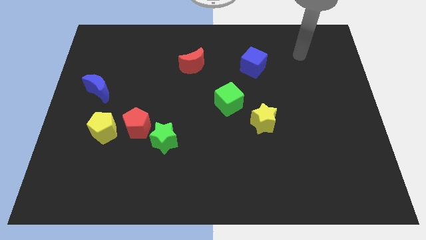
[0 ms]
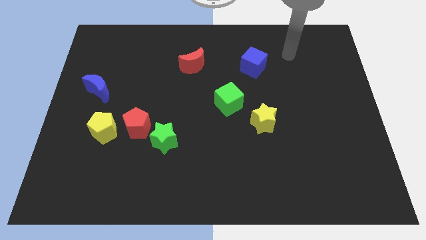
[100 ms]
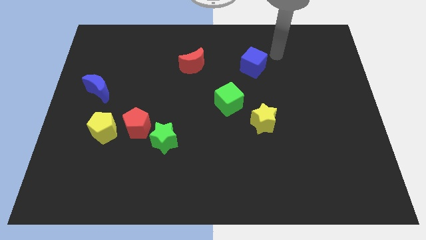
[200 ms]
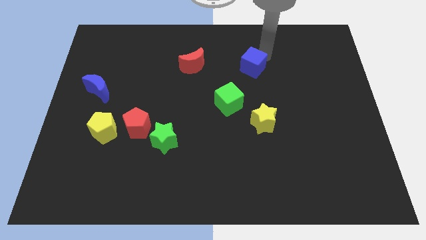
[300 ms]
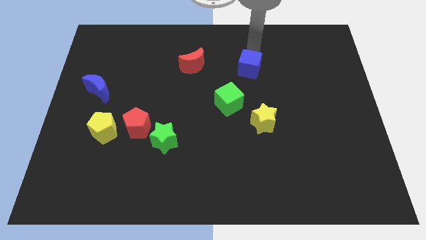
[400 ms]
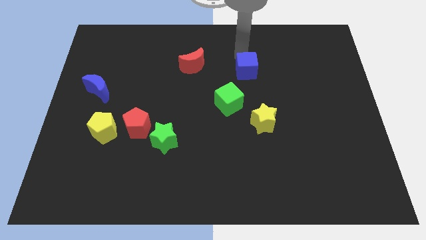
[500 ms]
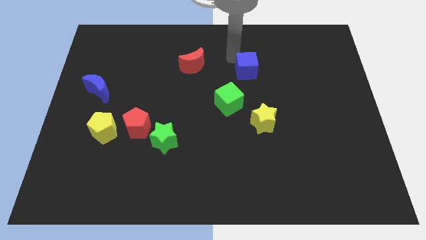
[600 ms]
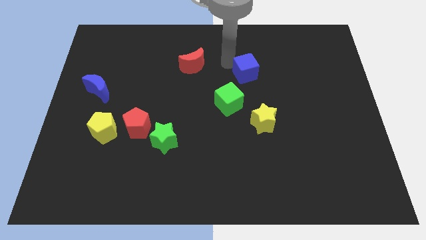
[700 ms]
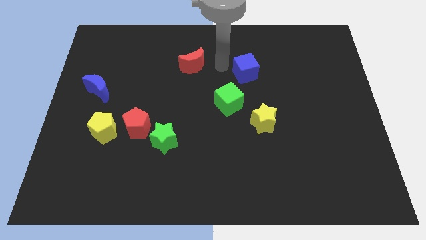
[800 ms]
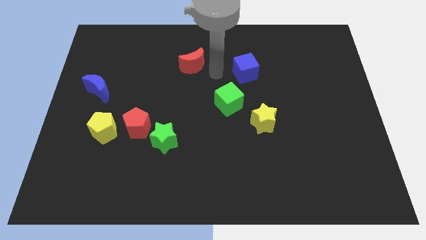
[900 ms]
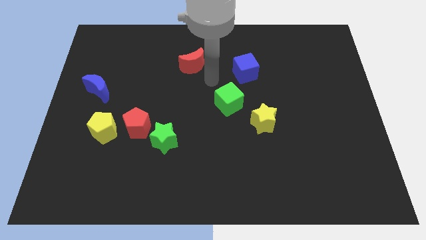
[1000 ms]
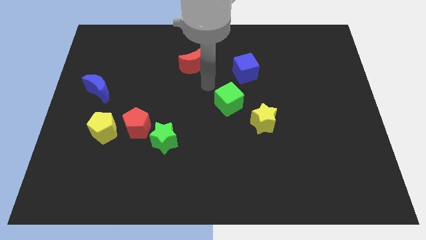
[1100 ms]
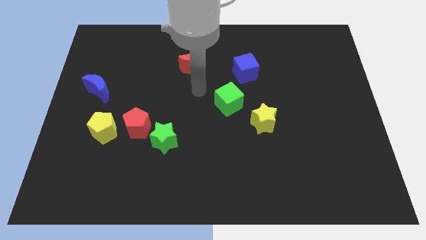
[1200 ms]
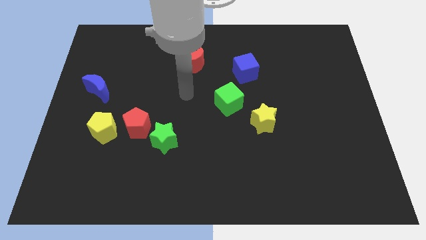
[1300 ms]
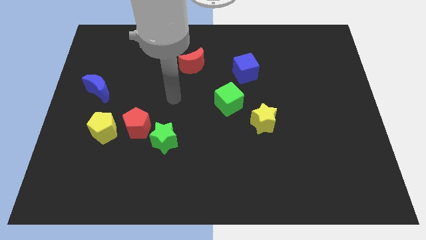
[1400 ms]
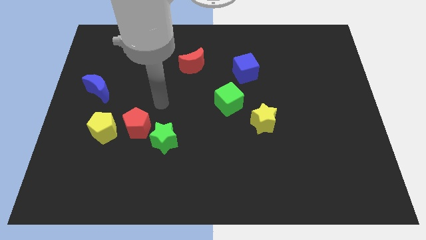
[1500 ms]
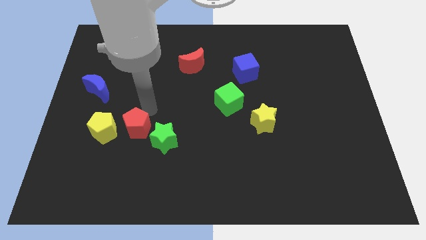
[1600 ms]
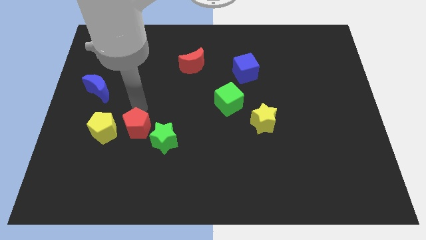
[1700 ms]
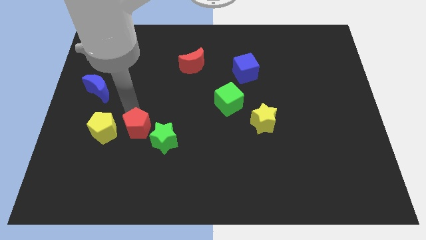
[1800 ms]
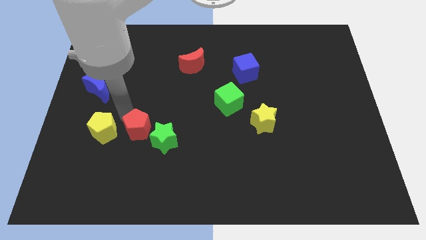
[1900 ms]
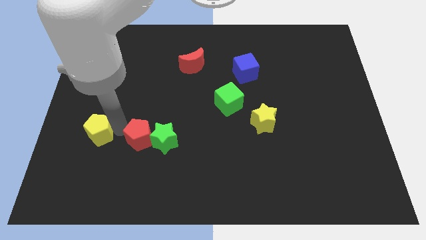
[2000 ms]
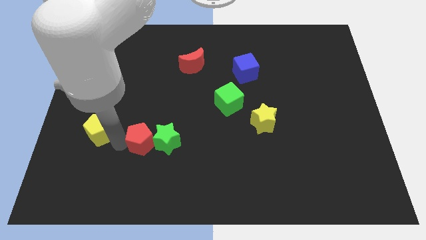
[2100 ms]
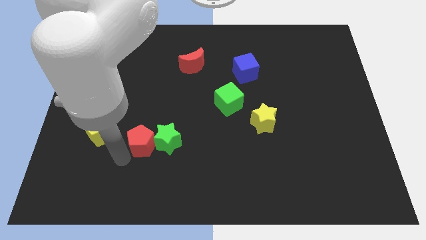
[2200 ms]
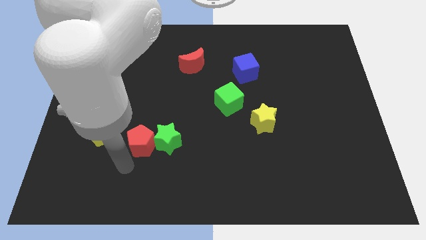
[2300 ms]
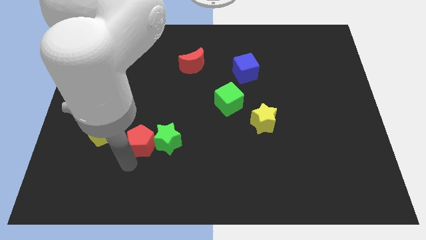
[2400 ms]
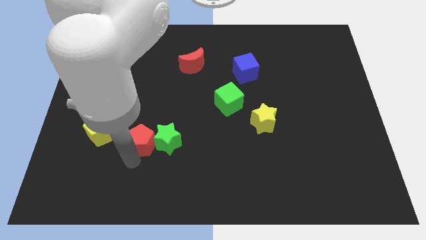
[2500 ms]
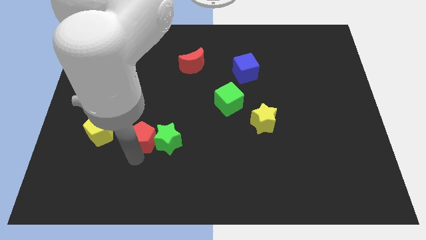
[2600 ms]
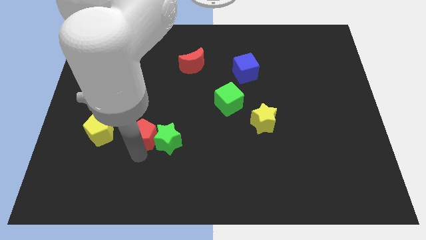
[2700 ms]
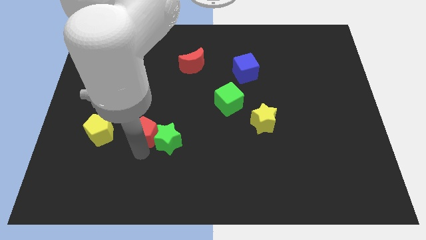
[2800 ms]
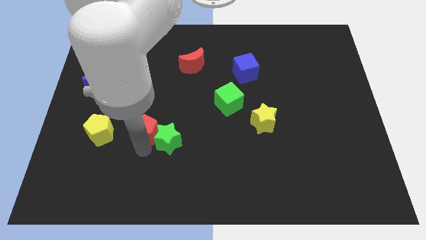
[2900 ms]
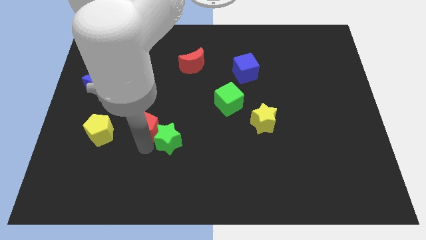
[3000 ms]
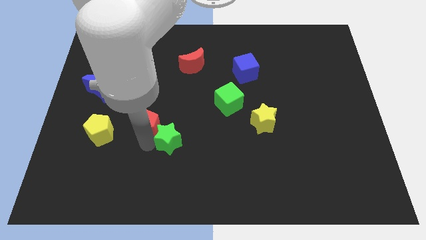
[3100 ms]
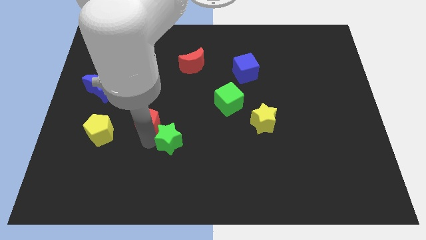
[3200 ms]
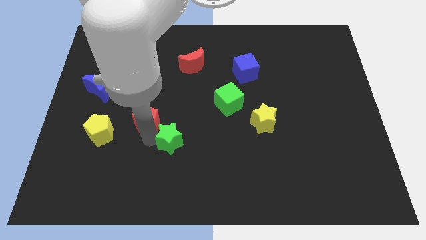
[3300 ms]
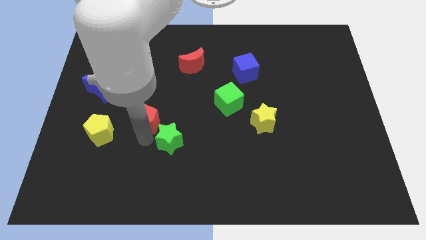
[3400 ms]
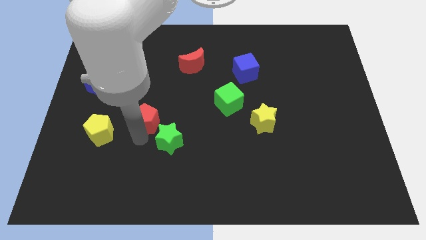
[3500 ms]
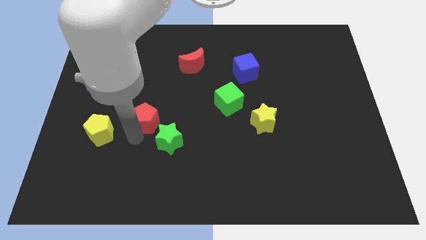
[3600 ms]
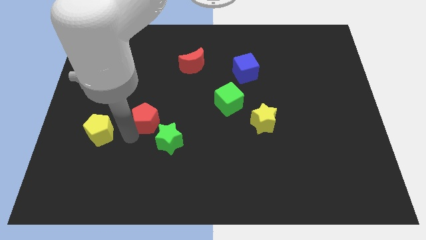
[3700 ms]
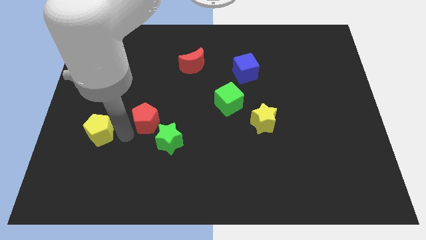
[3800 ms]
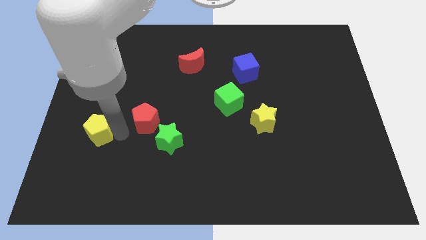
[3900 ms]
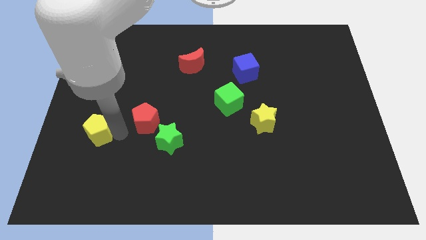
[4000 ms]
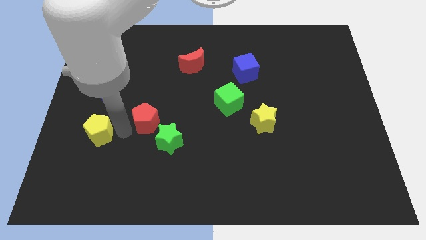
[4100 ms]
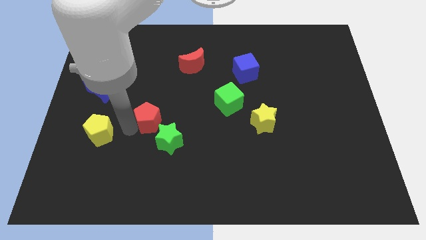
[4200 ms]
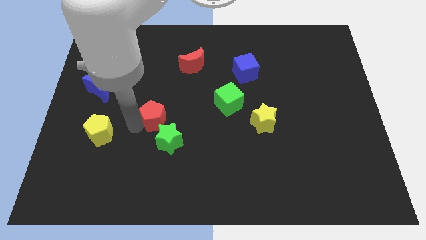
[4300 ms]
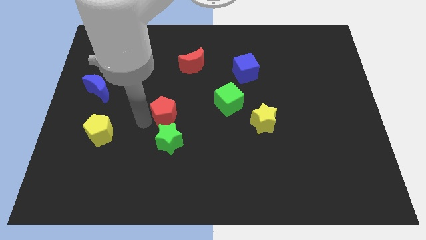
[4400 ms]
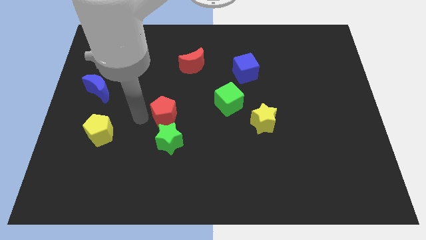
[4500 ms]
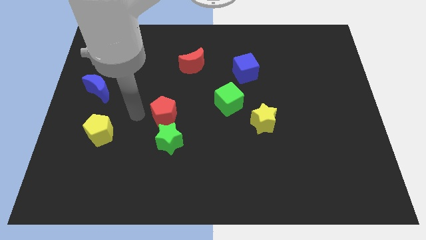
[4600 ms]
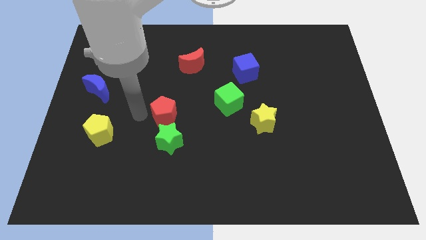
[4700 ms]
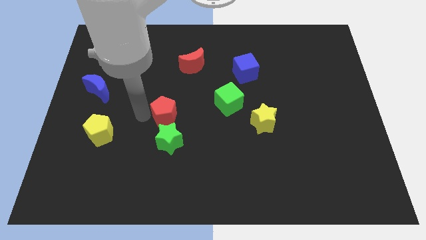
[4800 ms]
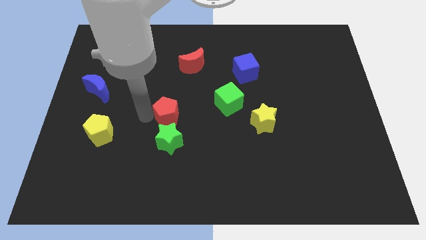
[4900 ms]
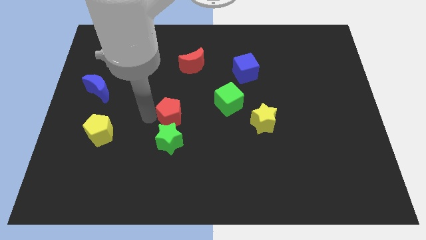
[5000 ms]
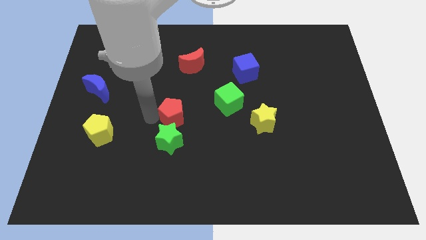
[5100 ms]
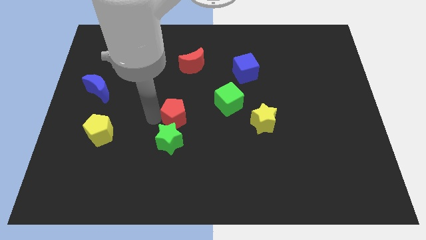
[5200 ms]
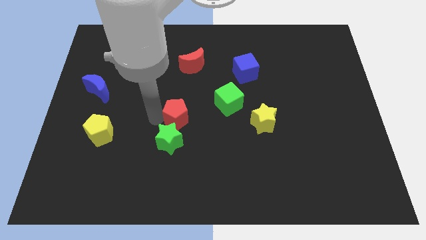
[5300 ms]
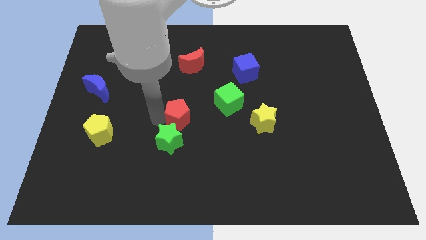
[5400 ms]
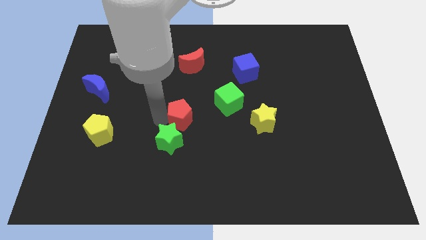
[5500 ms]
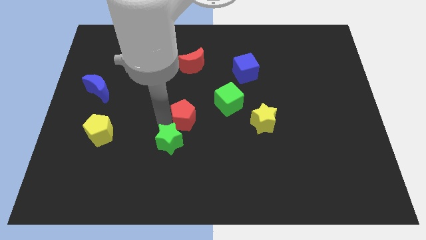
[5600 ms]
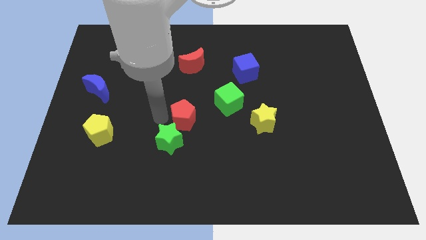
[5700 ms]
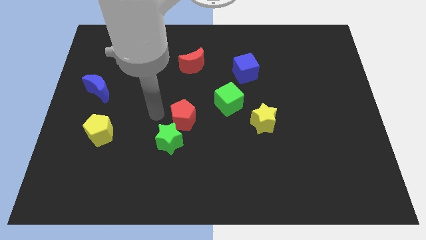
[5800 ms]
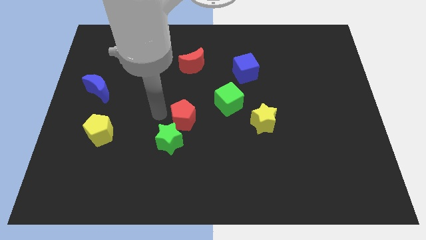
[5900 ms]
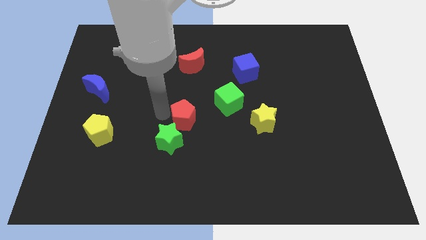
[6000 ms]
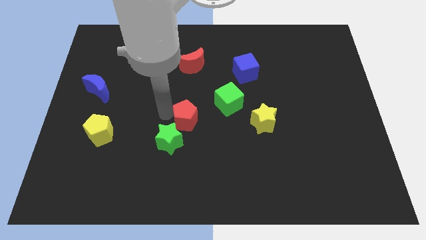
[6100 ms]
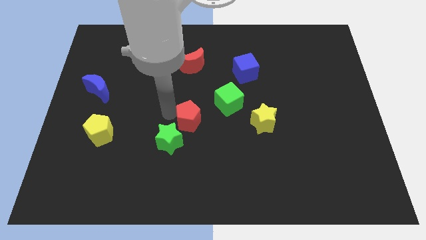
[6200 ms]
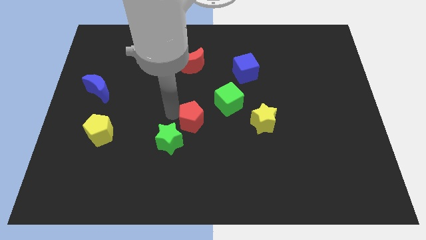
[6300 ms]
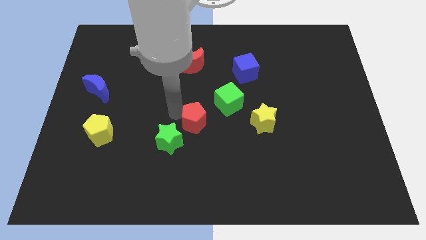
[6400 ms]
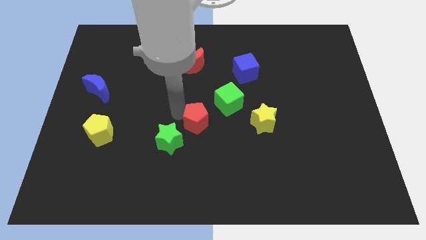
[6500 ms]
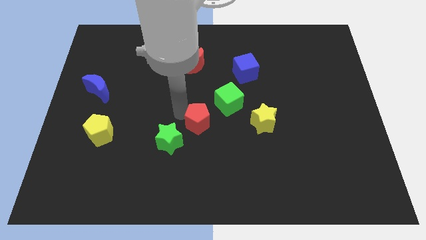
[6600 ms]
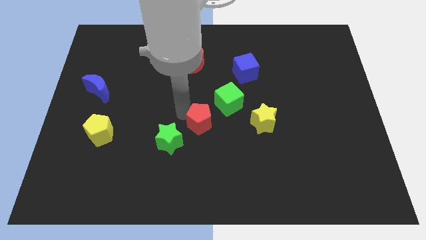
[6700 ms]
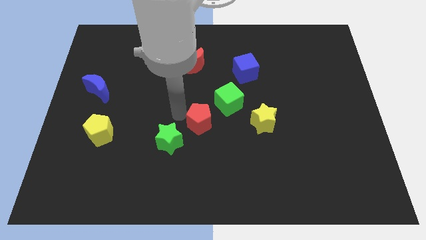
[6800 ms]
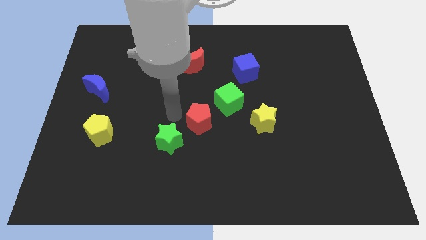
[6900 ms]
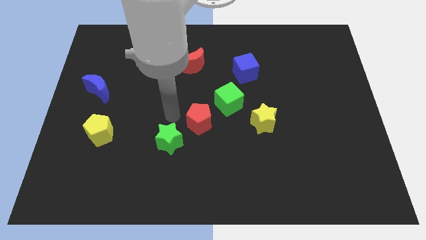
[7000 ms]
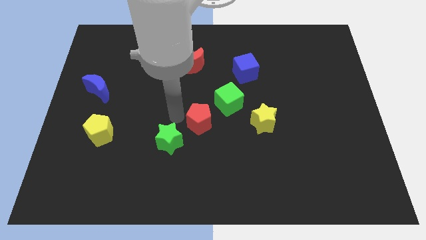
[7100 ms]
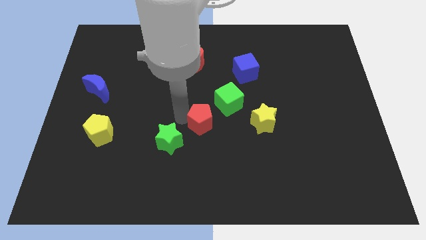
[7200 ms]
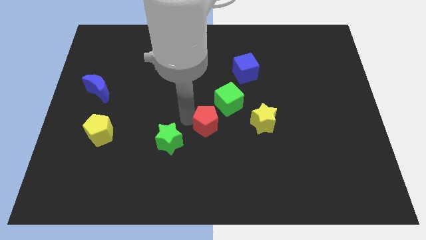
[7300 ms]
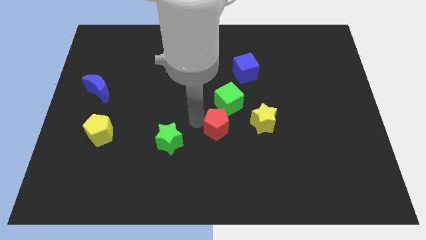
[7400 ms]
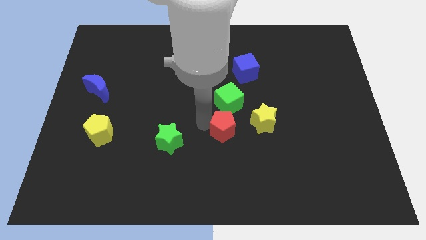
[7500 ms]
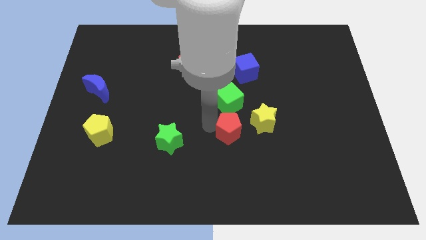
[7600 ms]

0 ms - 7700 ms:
push the red pentagon to the right

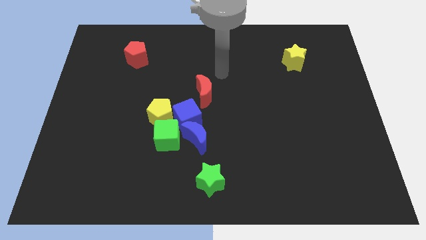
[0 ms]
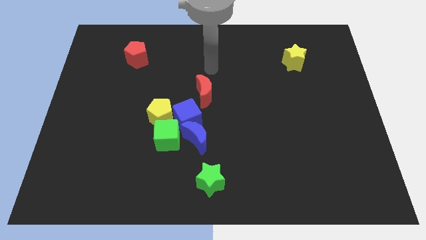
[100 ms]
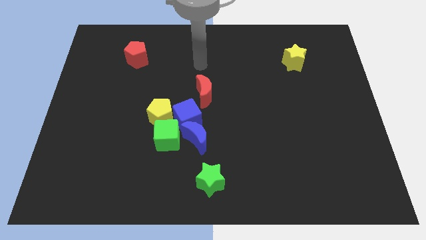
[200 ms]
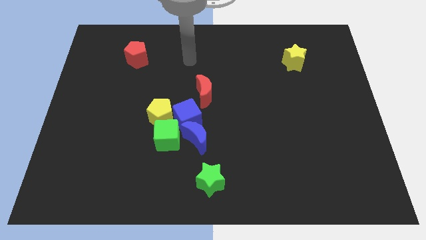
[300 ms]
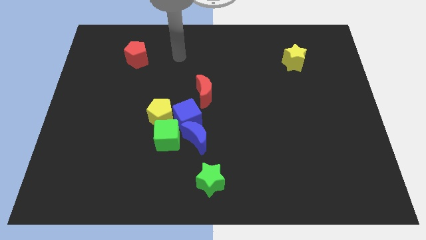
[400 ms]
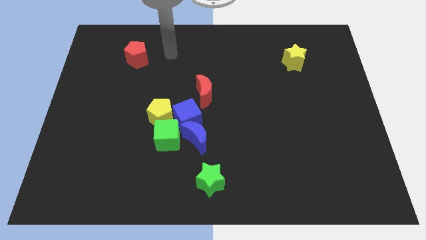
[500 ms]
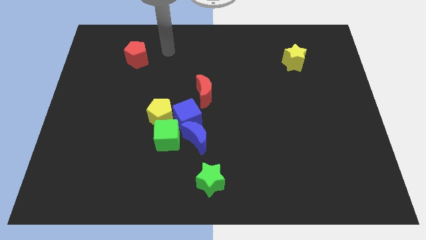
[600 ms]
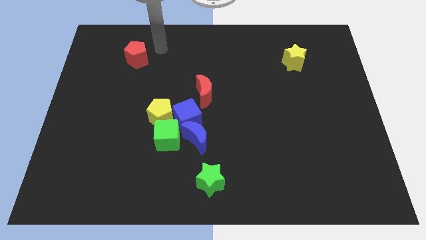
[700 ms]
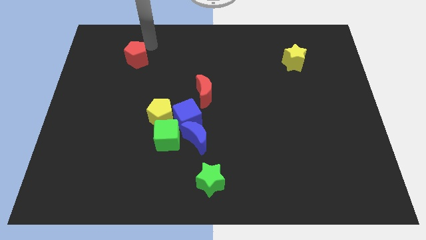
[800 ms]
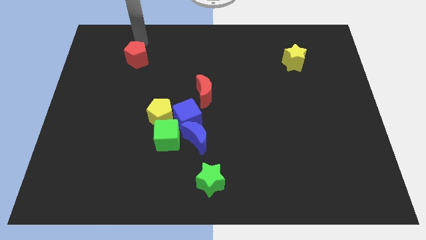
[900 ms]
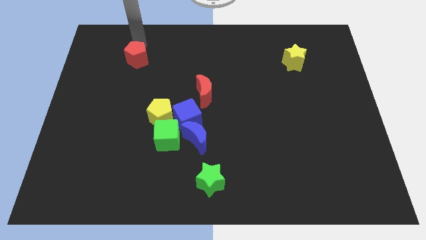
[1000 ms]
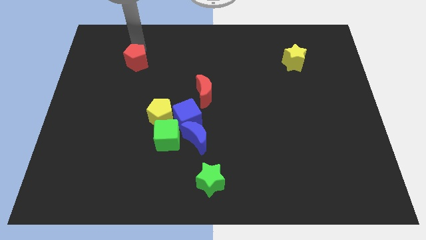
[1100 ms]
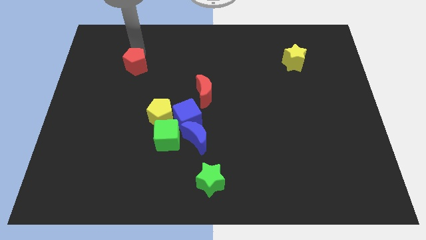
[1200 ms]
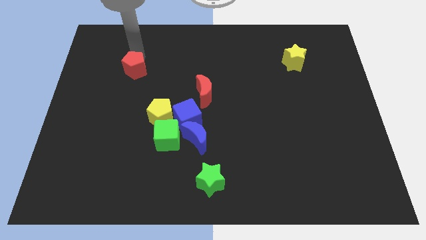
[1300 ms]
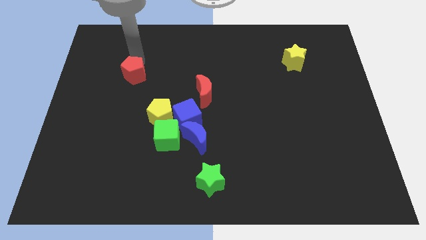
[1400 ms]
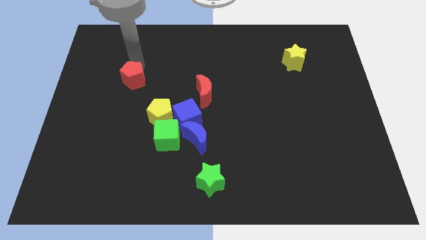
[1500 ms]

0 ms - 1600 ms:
slightly push the red pentagon down
